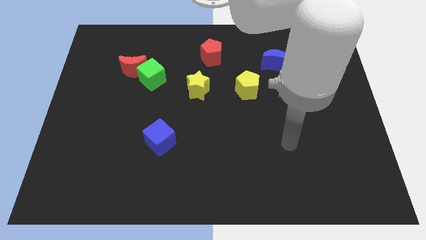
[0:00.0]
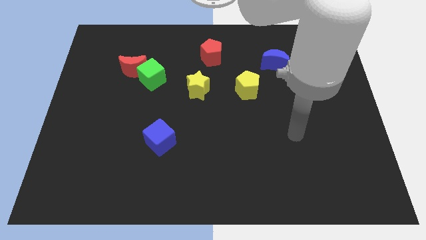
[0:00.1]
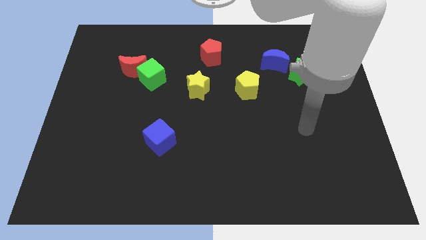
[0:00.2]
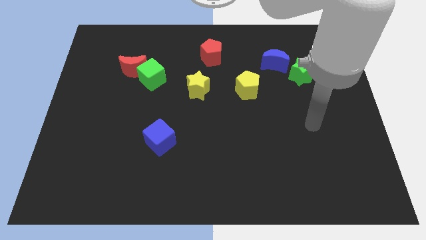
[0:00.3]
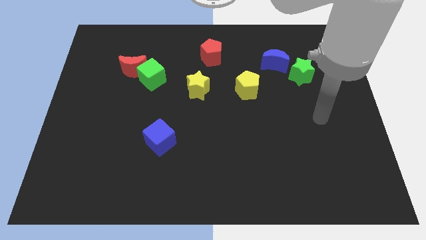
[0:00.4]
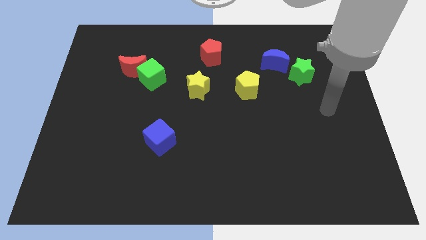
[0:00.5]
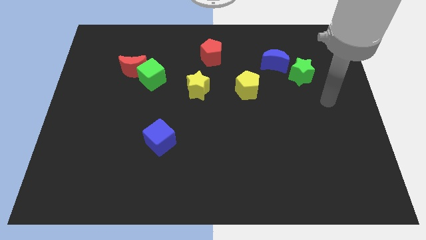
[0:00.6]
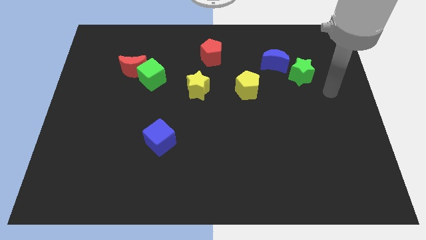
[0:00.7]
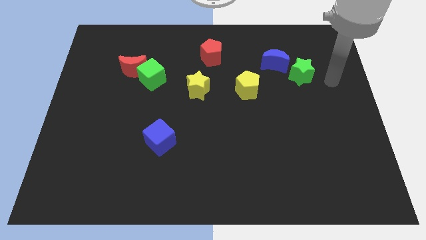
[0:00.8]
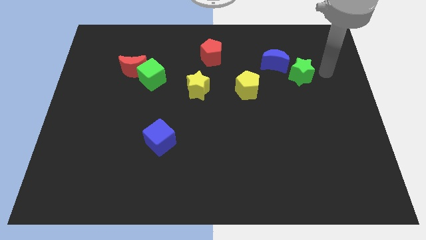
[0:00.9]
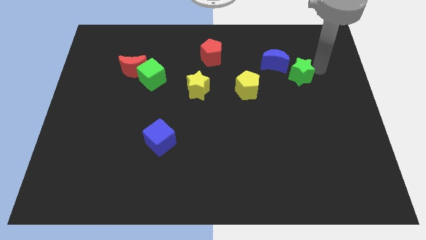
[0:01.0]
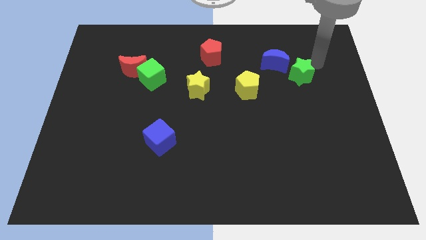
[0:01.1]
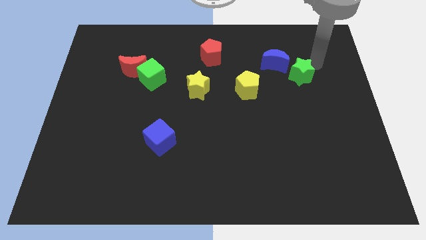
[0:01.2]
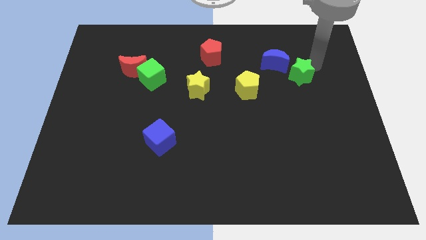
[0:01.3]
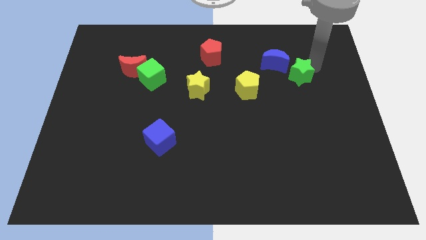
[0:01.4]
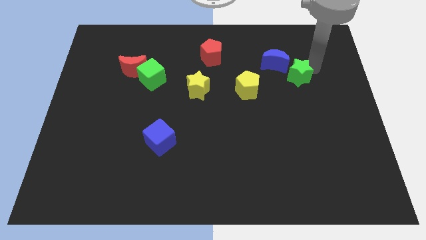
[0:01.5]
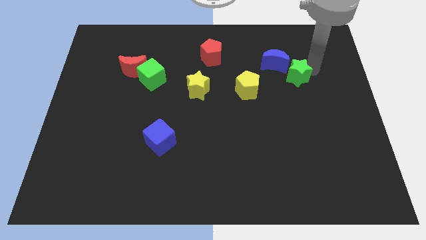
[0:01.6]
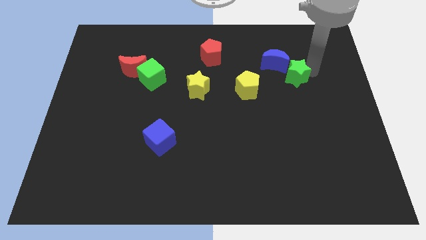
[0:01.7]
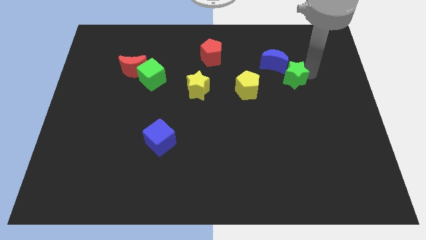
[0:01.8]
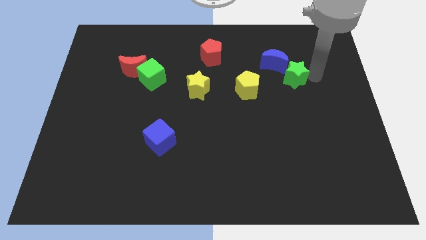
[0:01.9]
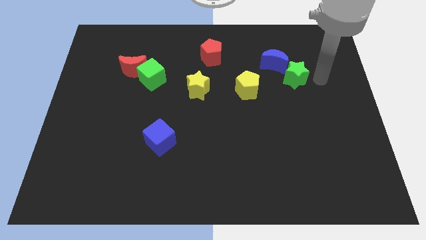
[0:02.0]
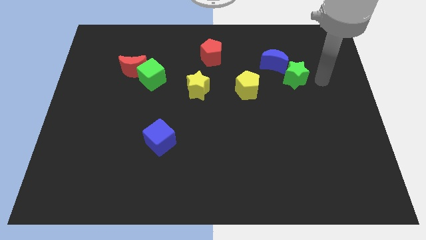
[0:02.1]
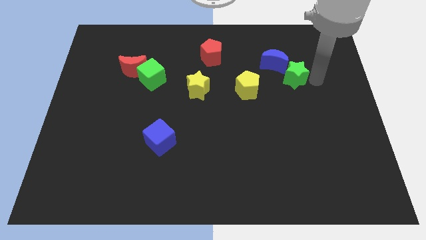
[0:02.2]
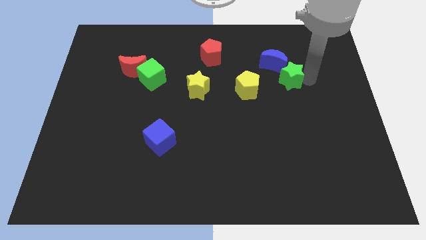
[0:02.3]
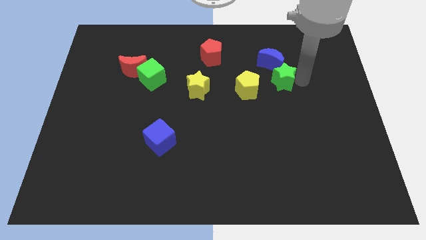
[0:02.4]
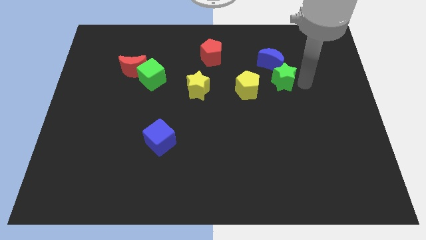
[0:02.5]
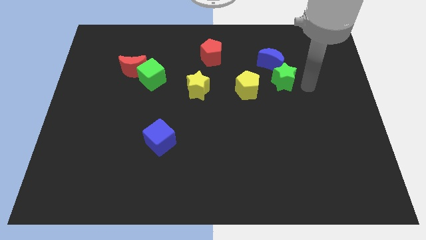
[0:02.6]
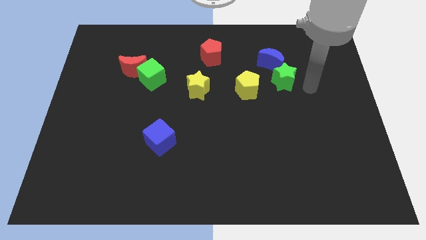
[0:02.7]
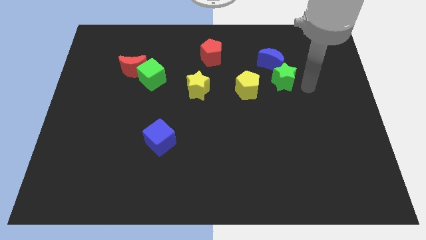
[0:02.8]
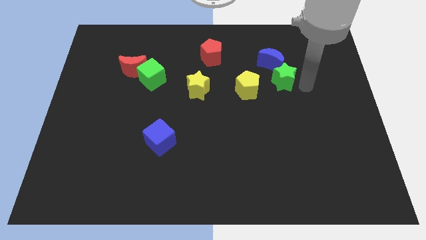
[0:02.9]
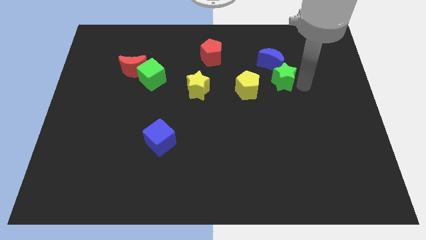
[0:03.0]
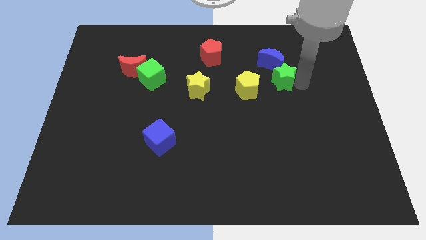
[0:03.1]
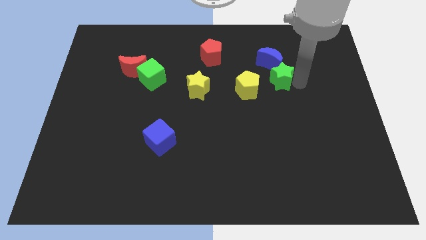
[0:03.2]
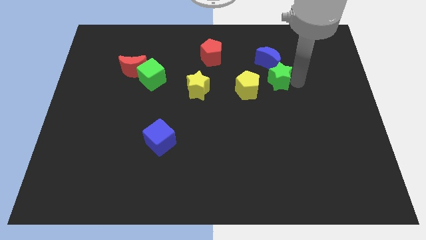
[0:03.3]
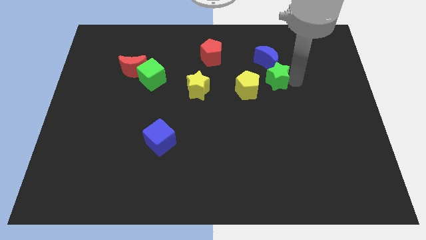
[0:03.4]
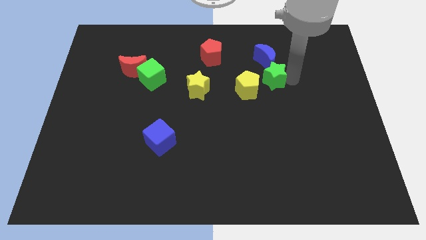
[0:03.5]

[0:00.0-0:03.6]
slightly push the green star to the left

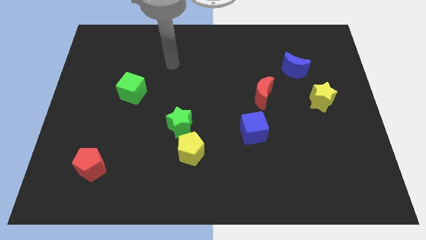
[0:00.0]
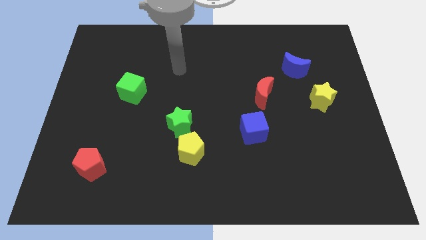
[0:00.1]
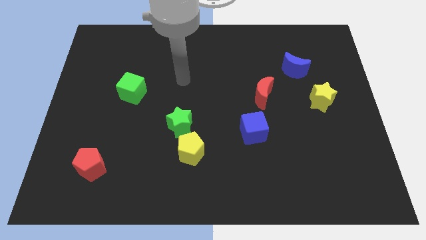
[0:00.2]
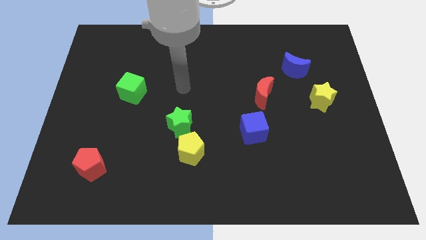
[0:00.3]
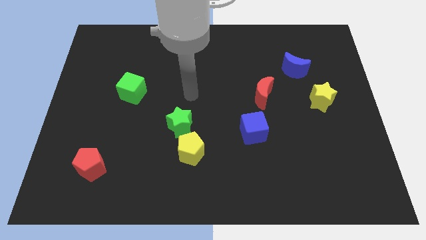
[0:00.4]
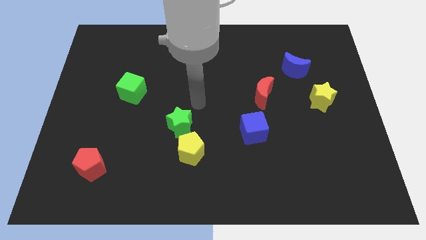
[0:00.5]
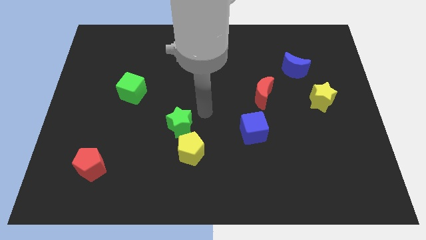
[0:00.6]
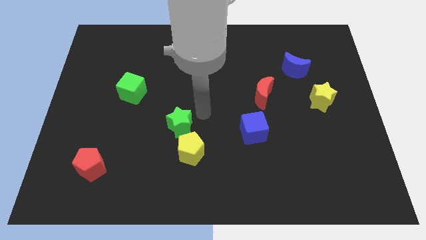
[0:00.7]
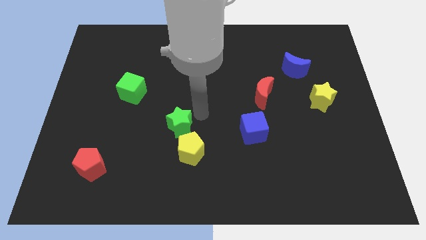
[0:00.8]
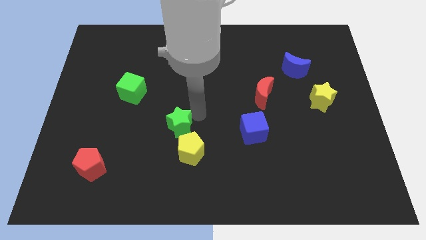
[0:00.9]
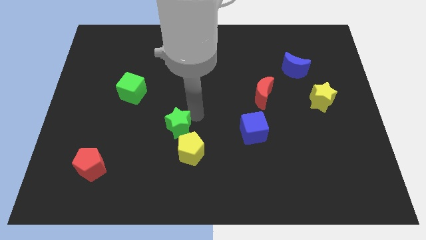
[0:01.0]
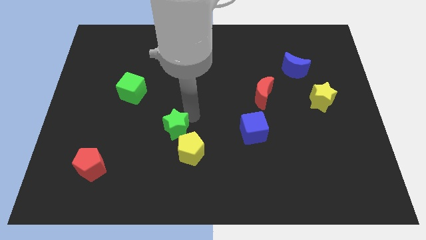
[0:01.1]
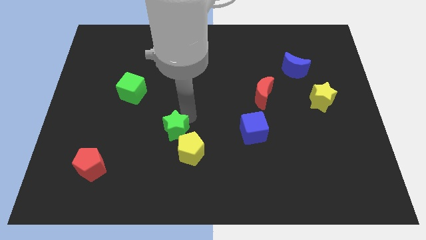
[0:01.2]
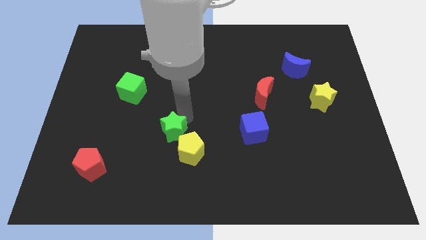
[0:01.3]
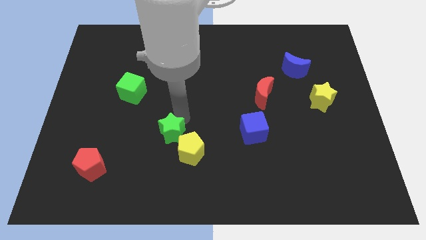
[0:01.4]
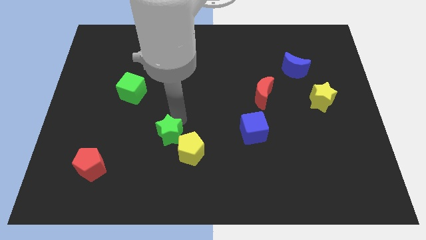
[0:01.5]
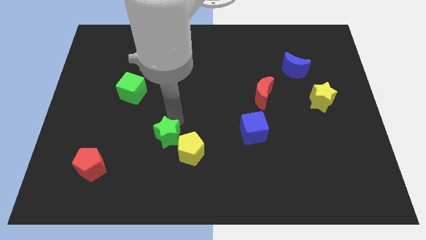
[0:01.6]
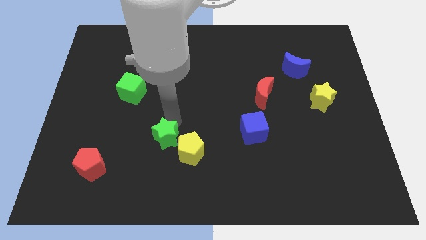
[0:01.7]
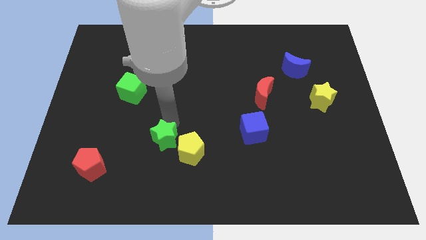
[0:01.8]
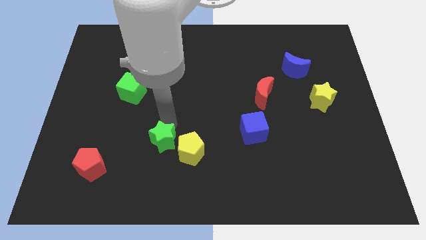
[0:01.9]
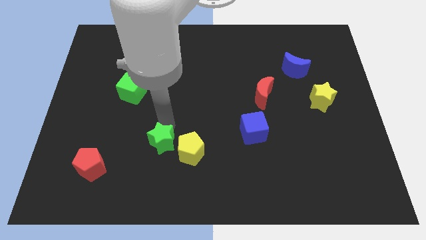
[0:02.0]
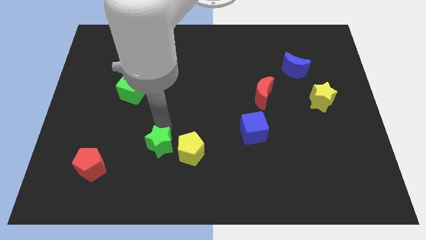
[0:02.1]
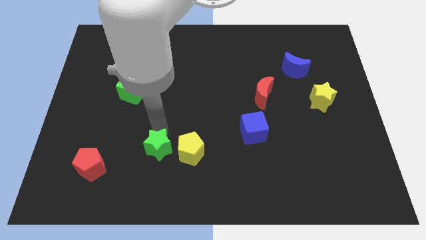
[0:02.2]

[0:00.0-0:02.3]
move the green star a bit downwards and to the left diagonally

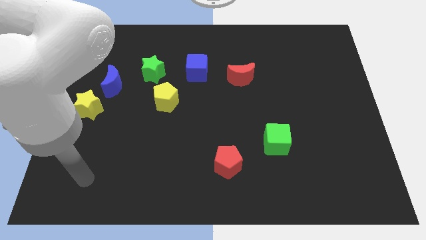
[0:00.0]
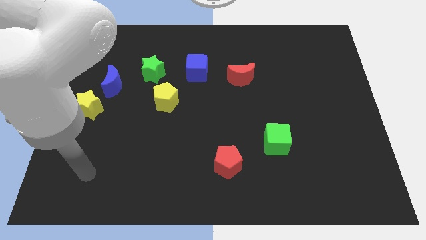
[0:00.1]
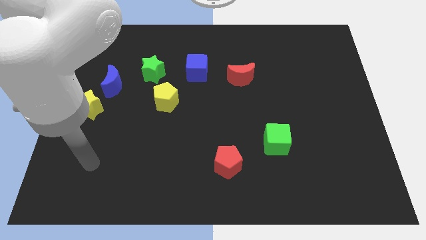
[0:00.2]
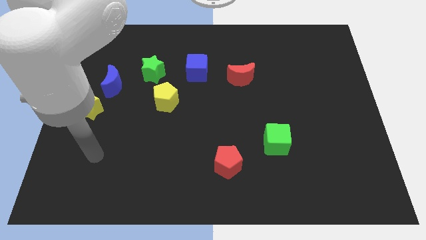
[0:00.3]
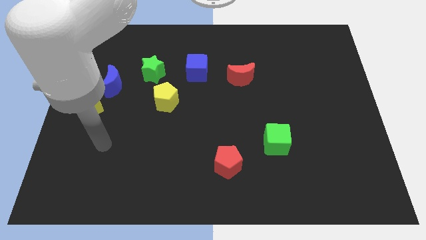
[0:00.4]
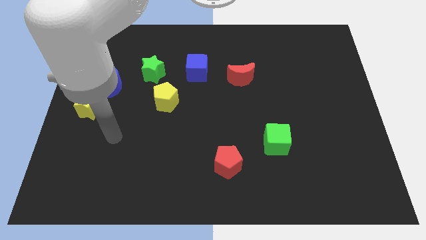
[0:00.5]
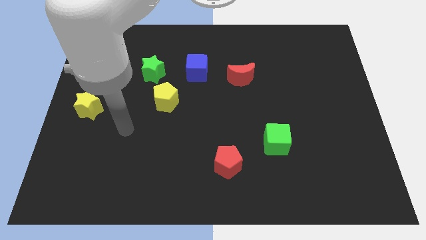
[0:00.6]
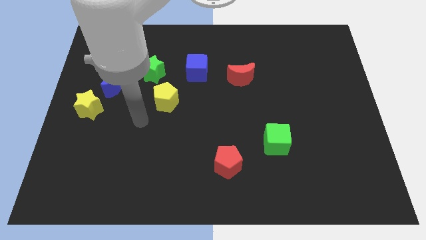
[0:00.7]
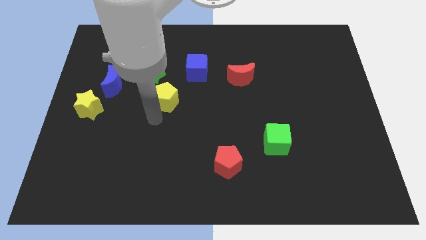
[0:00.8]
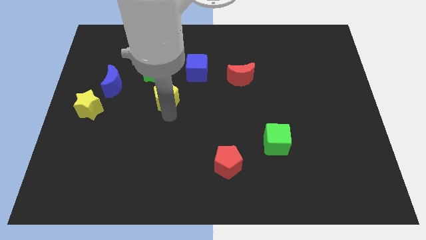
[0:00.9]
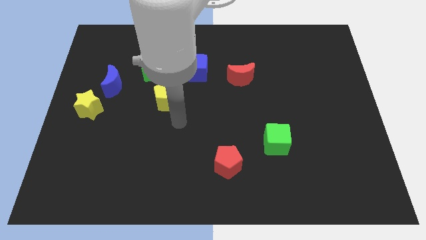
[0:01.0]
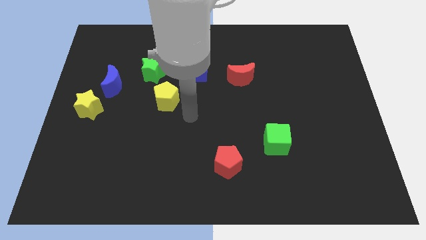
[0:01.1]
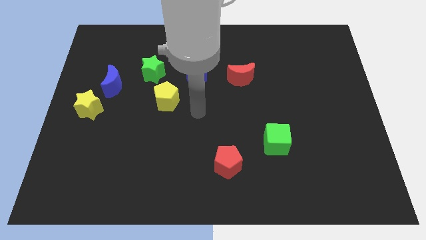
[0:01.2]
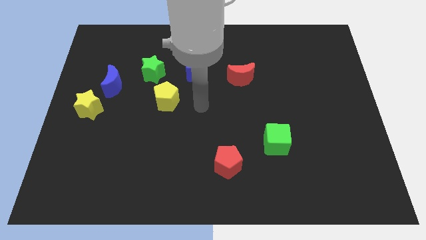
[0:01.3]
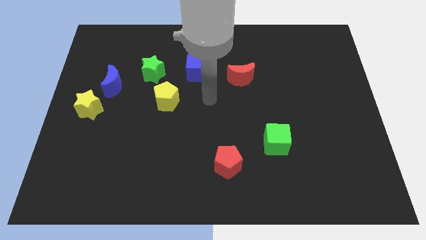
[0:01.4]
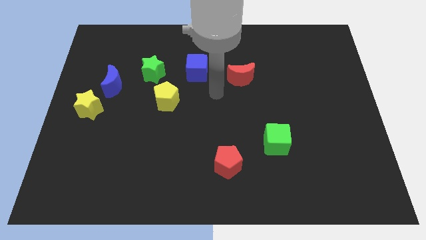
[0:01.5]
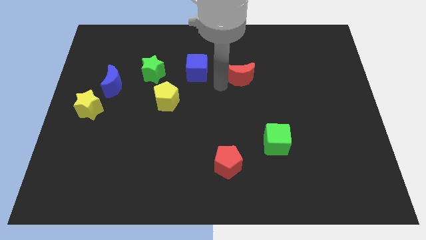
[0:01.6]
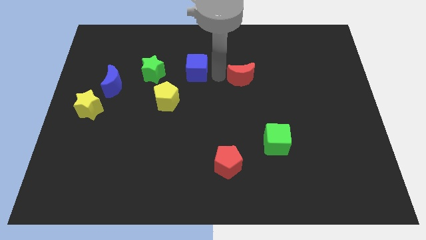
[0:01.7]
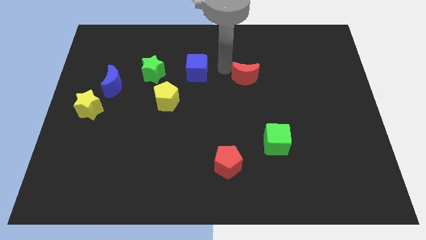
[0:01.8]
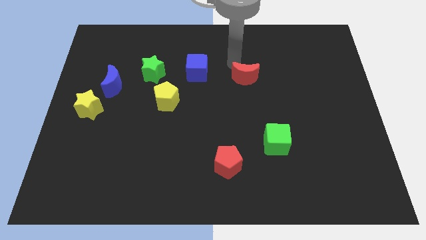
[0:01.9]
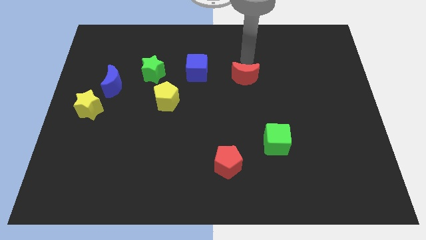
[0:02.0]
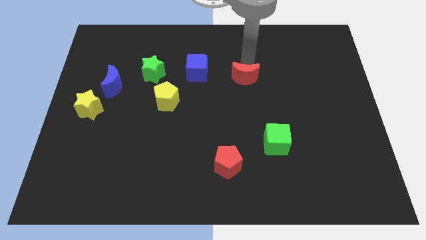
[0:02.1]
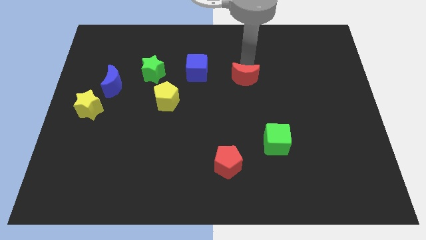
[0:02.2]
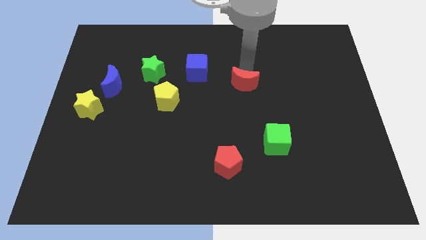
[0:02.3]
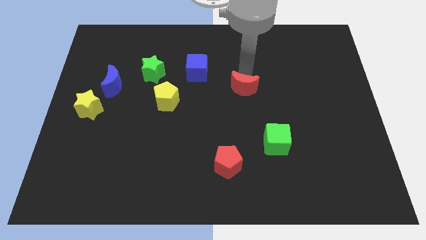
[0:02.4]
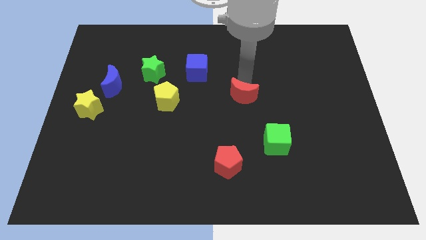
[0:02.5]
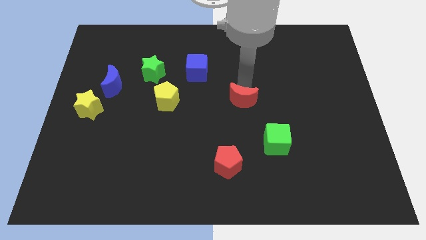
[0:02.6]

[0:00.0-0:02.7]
slightly push the red moon downwards
